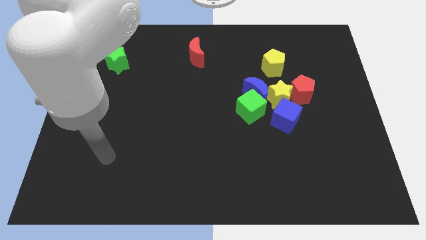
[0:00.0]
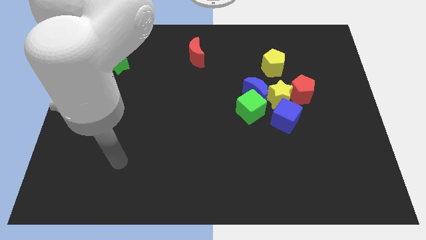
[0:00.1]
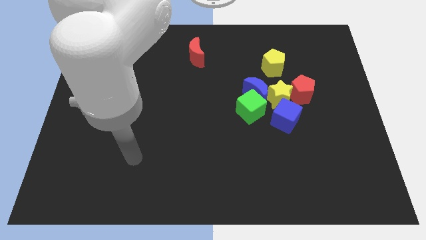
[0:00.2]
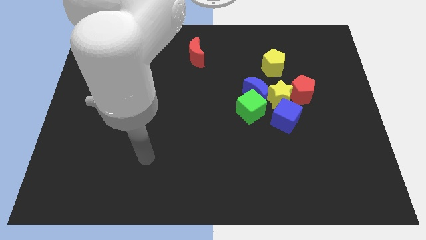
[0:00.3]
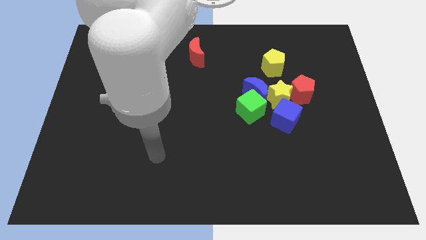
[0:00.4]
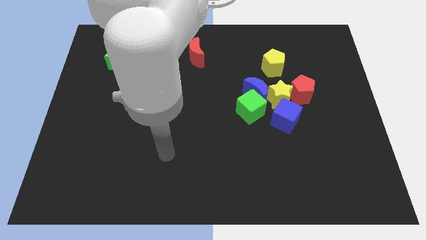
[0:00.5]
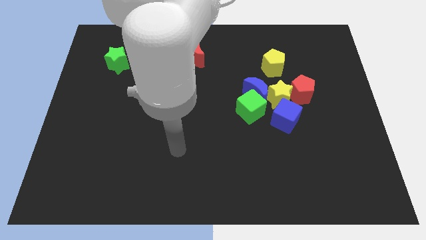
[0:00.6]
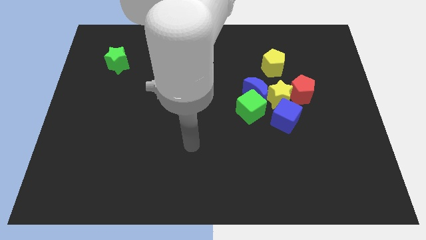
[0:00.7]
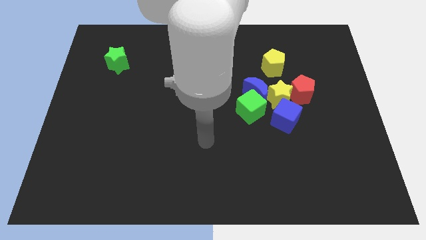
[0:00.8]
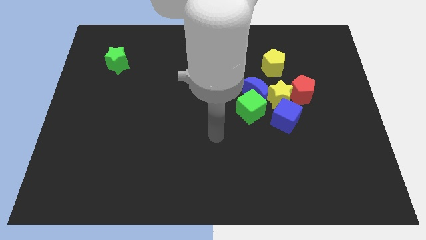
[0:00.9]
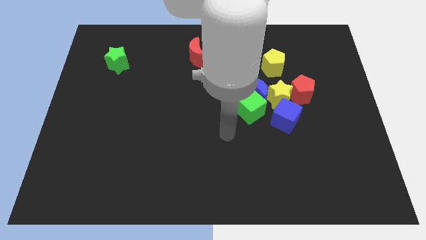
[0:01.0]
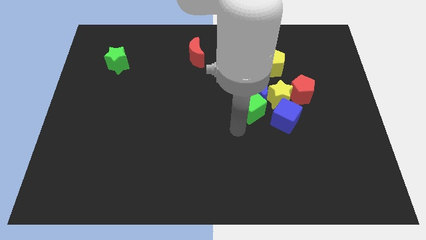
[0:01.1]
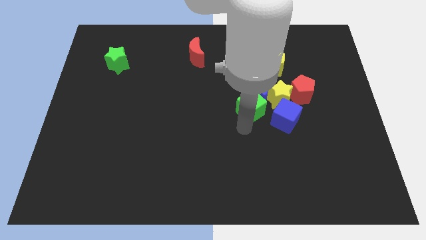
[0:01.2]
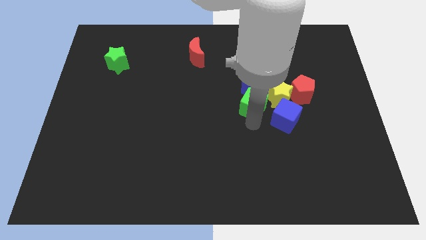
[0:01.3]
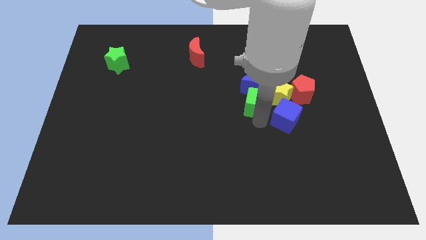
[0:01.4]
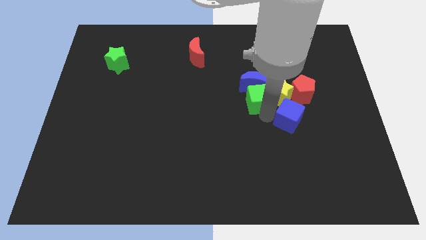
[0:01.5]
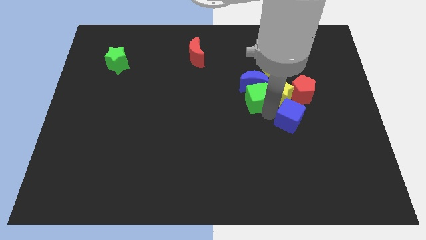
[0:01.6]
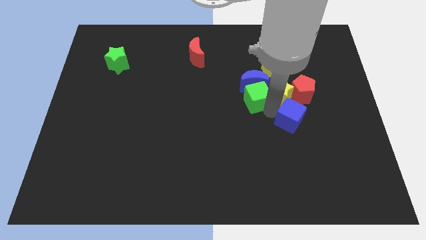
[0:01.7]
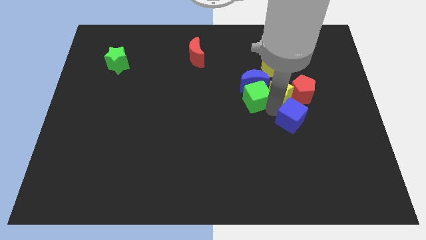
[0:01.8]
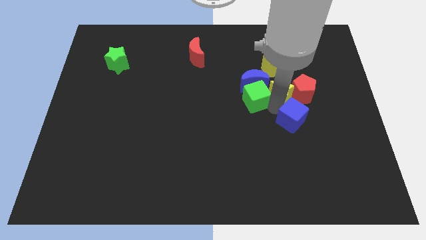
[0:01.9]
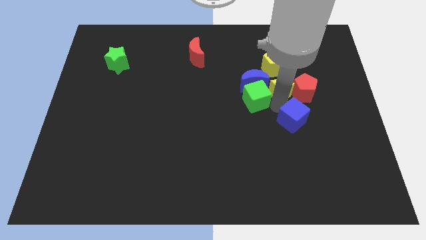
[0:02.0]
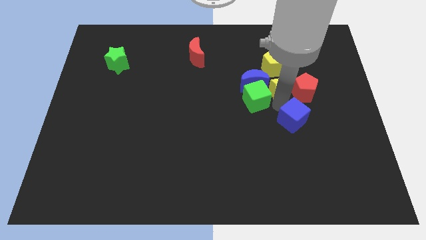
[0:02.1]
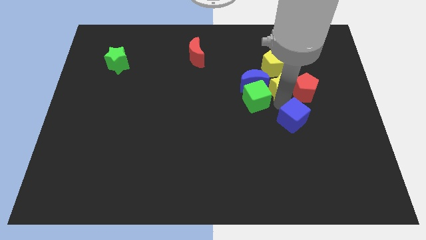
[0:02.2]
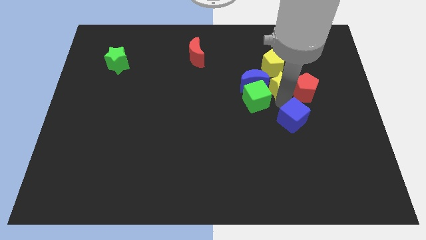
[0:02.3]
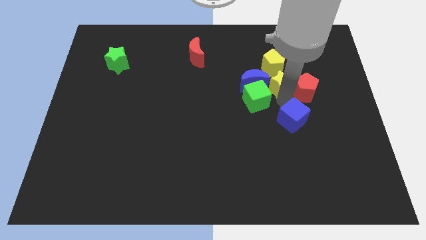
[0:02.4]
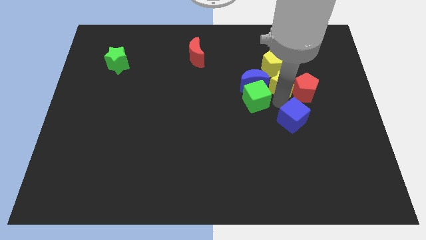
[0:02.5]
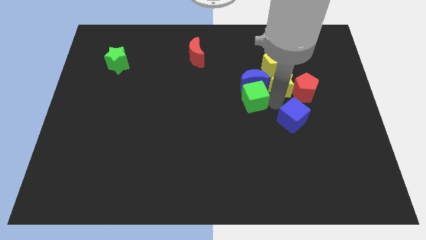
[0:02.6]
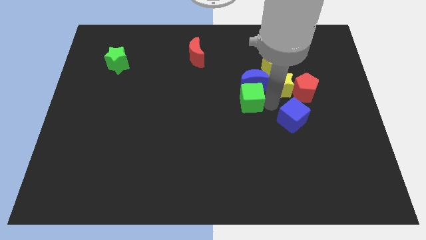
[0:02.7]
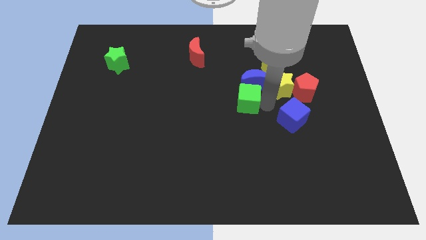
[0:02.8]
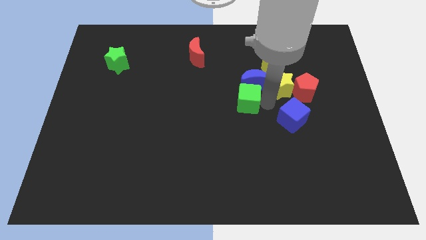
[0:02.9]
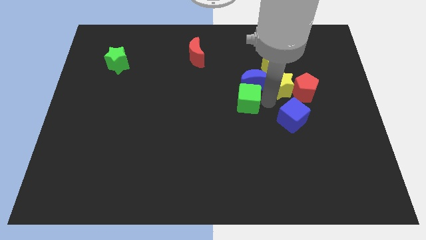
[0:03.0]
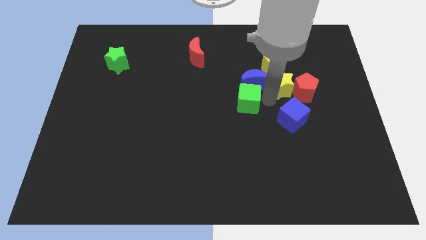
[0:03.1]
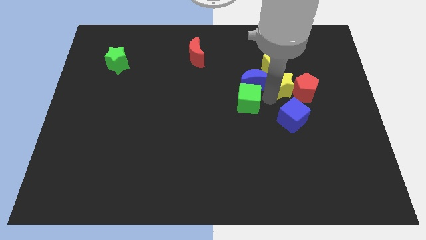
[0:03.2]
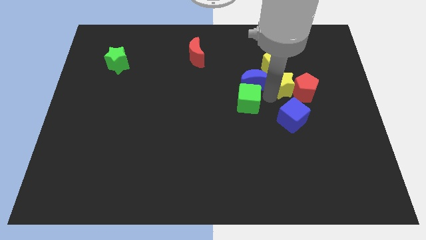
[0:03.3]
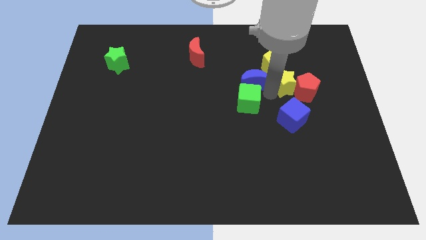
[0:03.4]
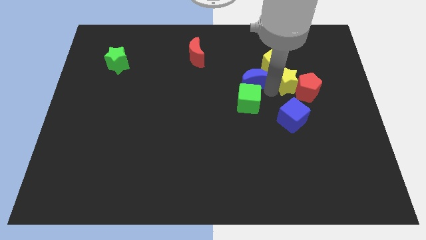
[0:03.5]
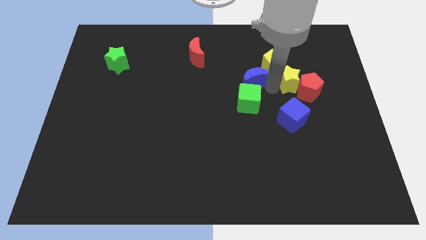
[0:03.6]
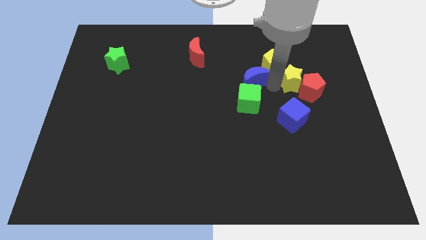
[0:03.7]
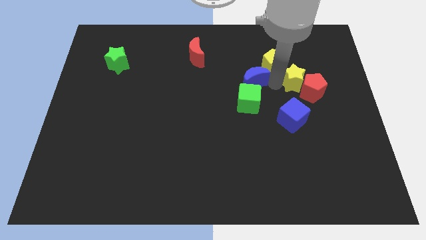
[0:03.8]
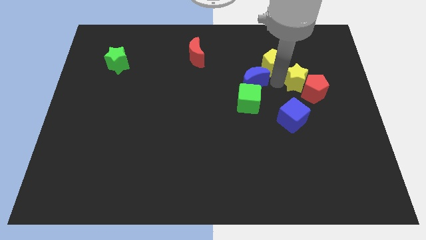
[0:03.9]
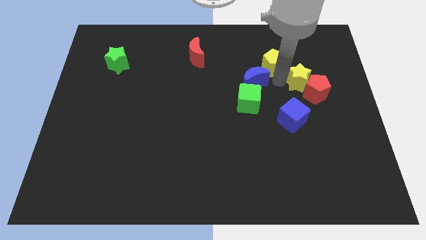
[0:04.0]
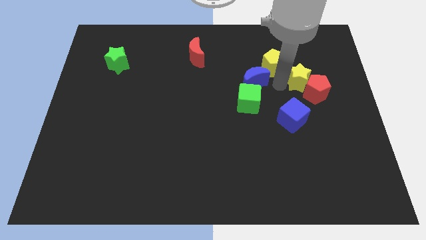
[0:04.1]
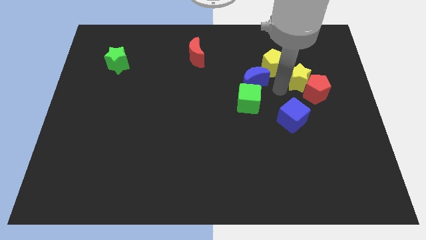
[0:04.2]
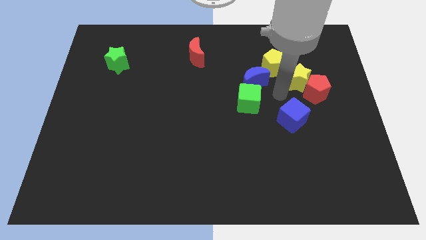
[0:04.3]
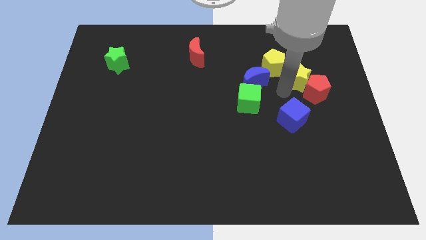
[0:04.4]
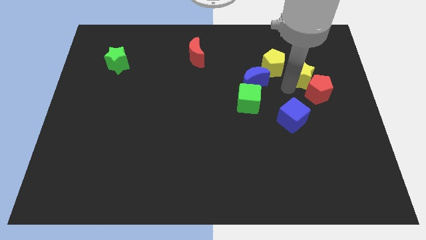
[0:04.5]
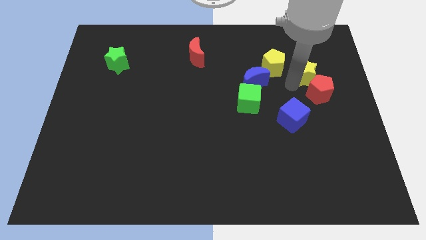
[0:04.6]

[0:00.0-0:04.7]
pull the yellow star apart from the clump

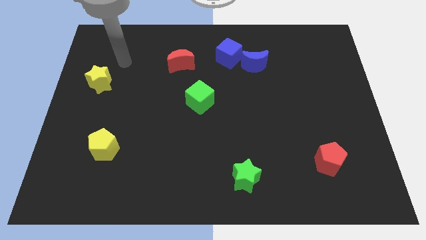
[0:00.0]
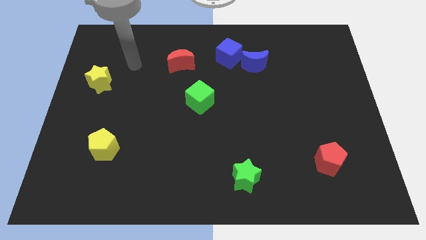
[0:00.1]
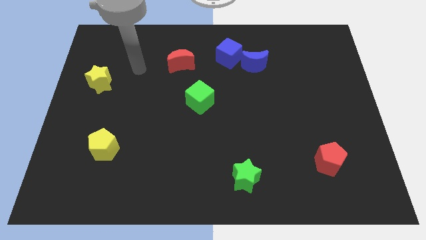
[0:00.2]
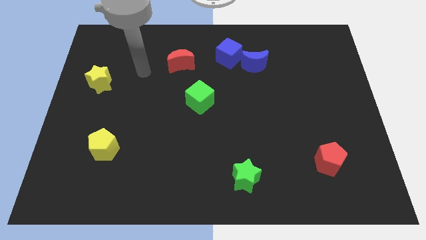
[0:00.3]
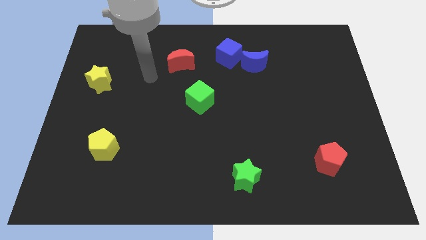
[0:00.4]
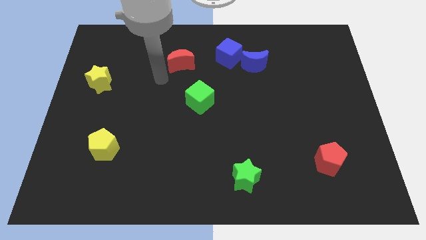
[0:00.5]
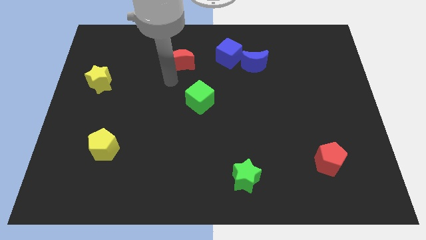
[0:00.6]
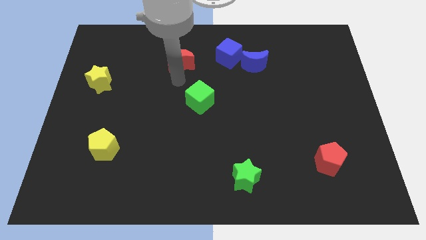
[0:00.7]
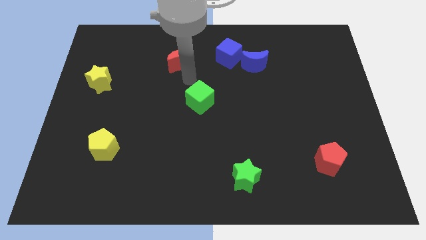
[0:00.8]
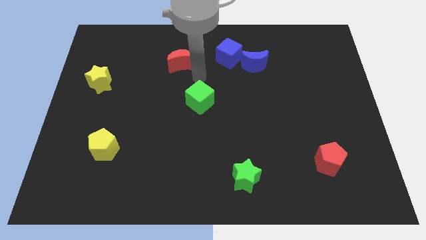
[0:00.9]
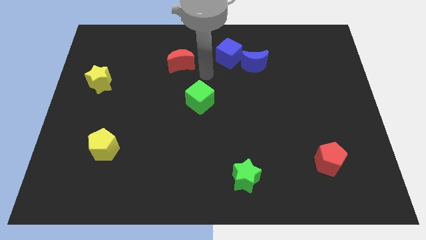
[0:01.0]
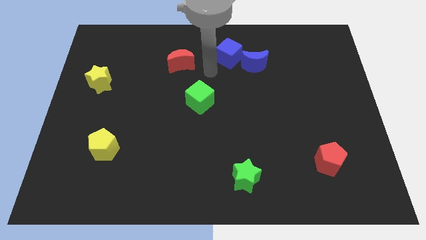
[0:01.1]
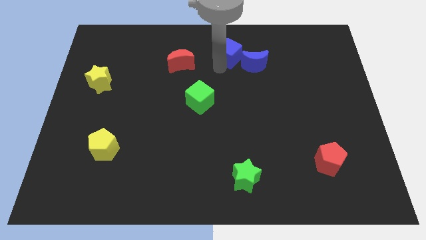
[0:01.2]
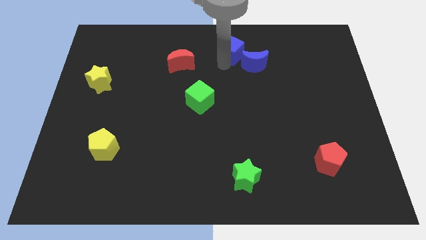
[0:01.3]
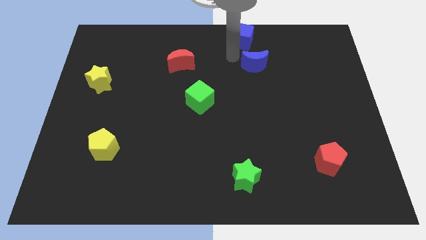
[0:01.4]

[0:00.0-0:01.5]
pull the blue moon apart from the blue cube

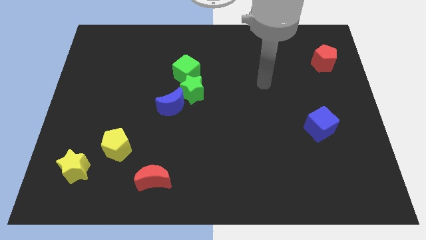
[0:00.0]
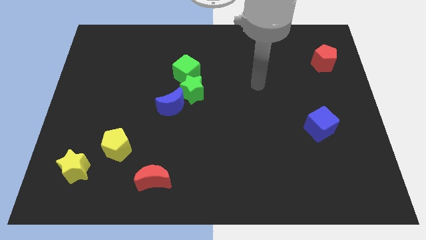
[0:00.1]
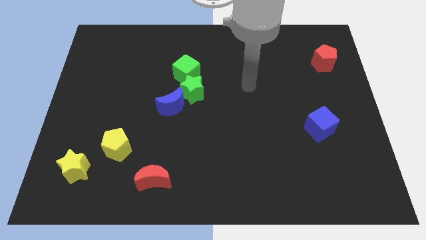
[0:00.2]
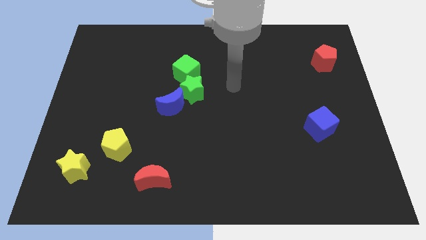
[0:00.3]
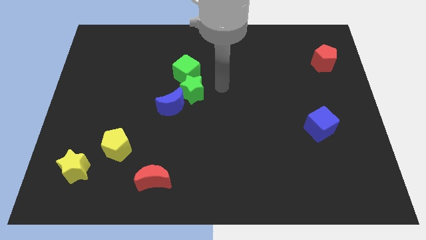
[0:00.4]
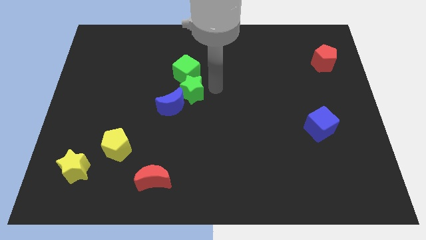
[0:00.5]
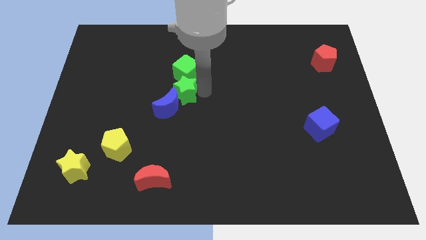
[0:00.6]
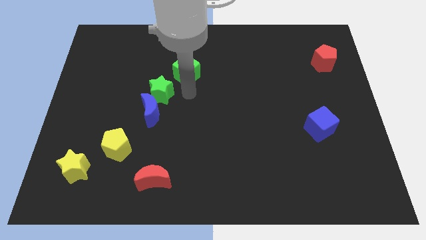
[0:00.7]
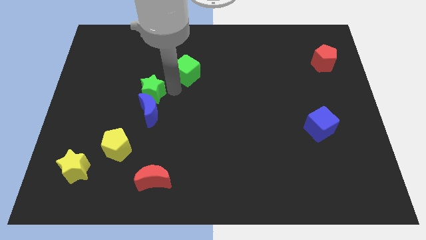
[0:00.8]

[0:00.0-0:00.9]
move the green cube away from the green star

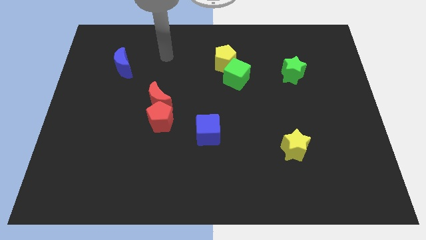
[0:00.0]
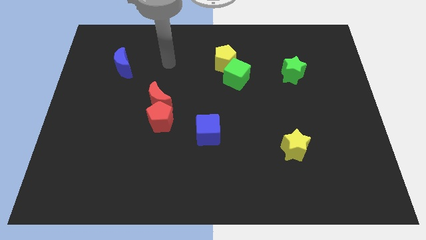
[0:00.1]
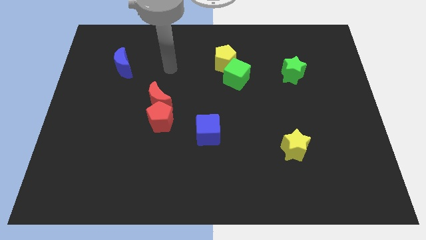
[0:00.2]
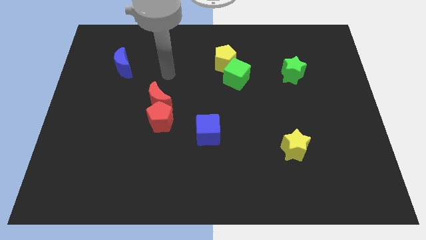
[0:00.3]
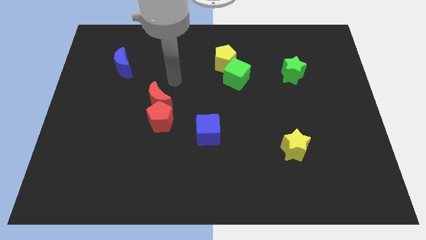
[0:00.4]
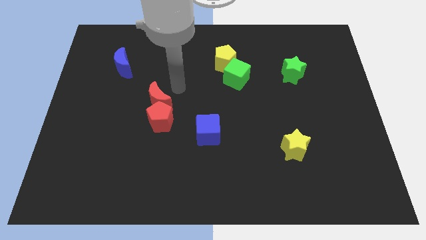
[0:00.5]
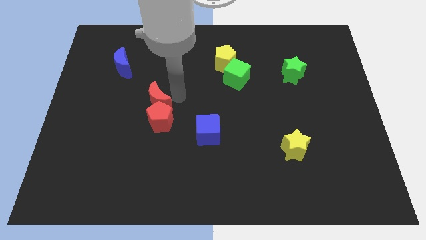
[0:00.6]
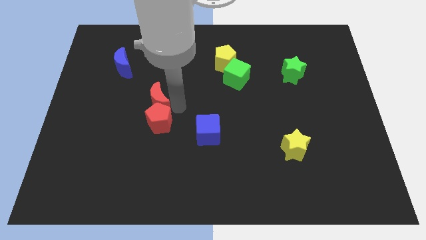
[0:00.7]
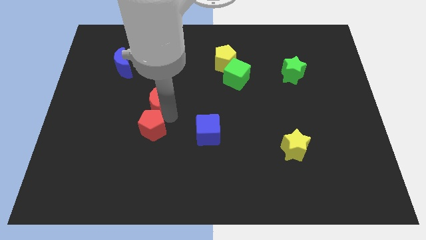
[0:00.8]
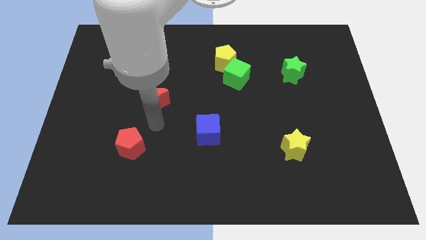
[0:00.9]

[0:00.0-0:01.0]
pull the red moon apart from the red pentagon

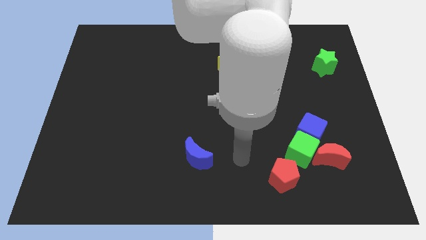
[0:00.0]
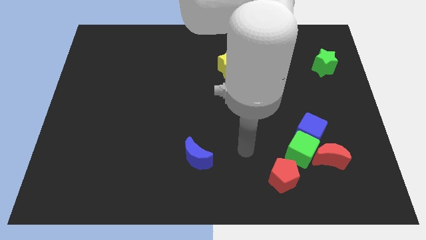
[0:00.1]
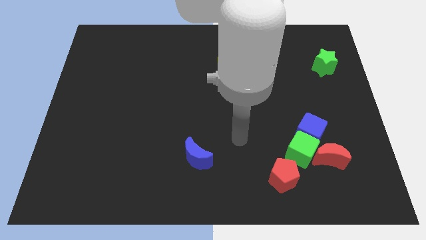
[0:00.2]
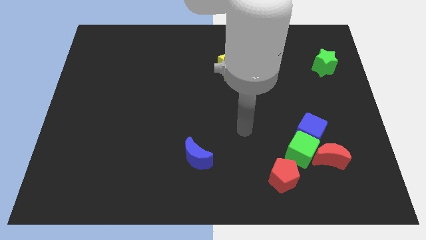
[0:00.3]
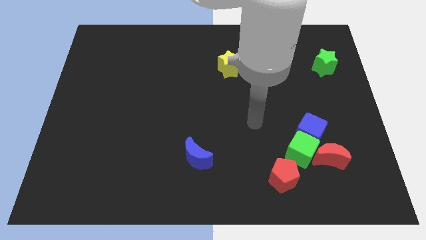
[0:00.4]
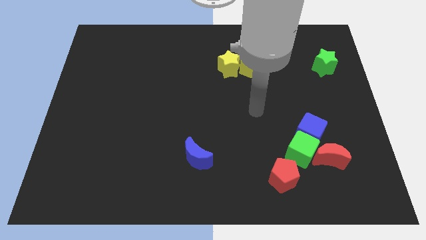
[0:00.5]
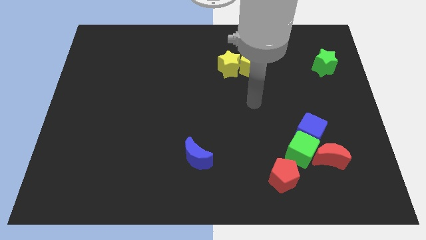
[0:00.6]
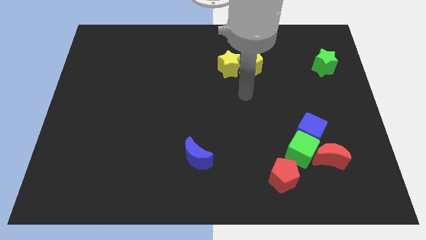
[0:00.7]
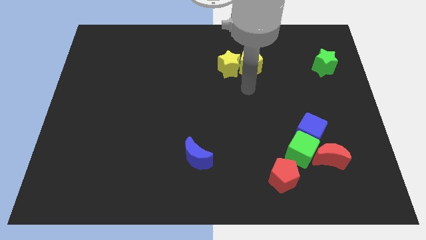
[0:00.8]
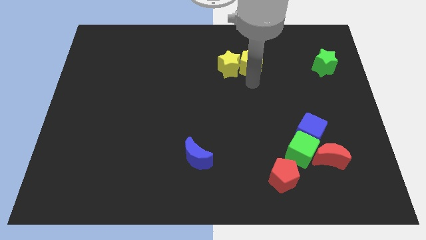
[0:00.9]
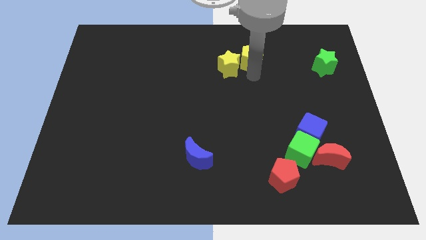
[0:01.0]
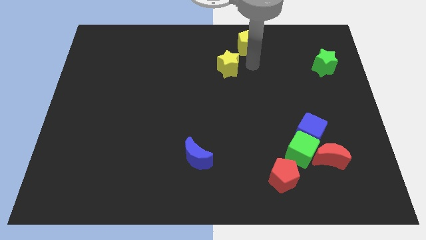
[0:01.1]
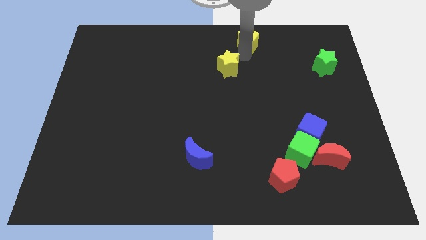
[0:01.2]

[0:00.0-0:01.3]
pull the yellow star apart from the yellow pentagon

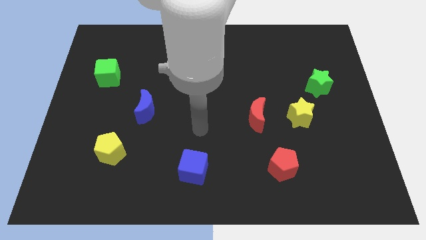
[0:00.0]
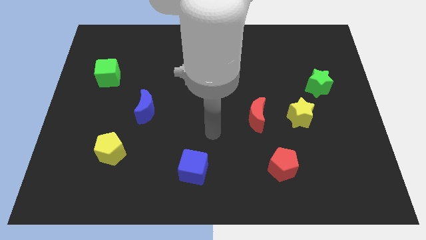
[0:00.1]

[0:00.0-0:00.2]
pull the red moon apart from the yellow star
